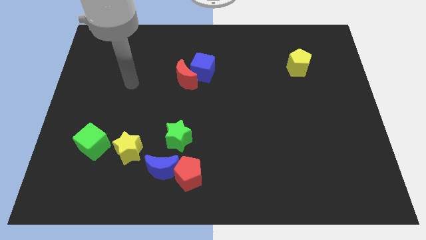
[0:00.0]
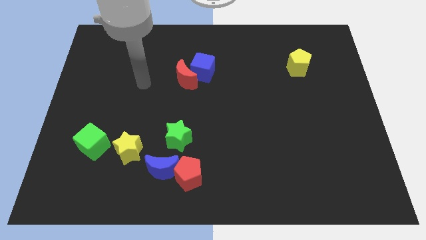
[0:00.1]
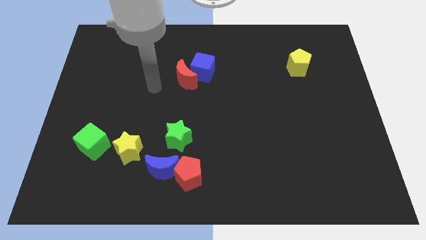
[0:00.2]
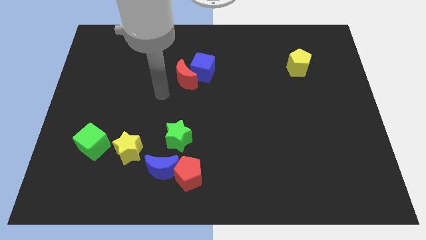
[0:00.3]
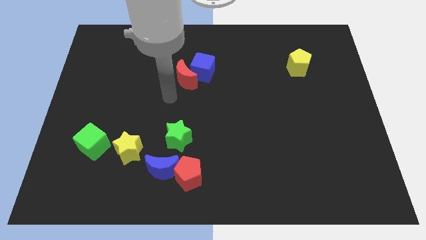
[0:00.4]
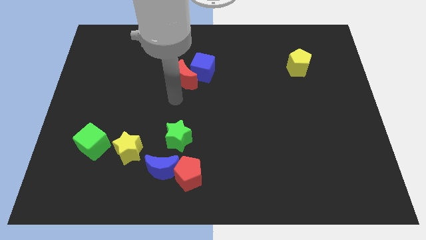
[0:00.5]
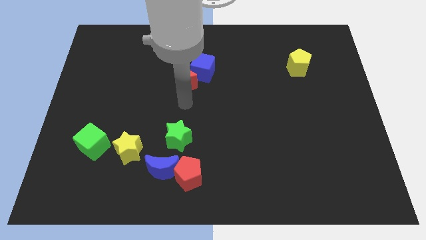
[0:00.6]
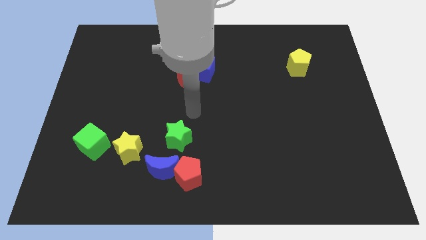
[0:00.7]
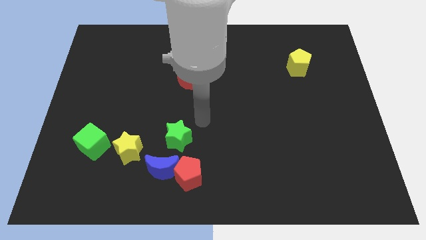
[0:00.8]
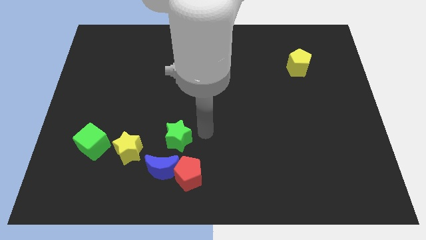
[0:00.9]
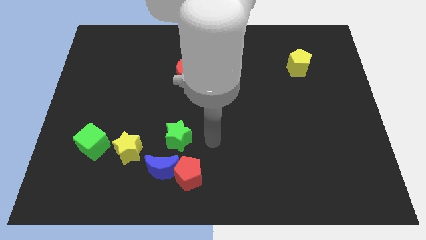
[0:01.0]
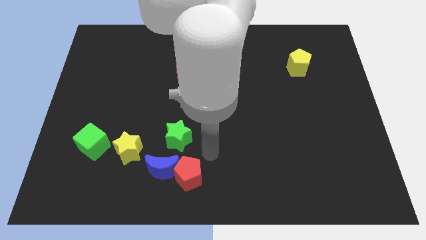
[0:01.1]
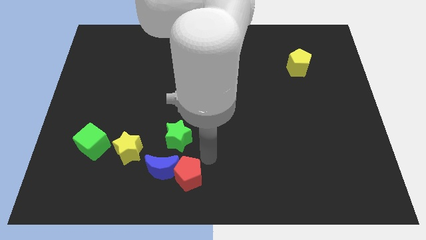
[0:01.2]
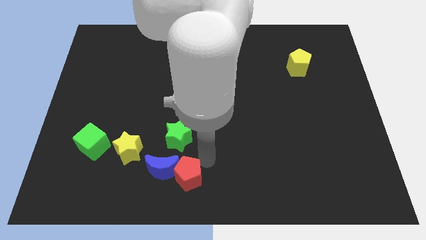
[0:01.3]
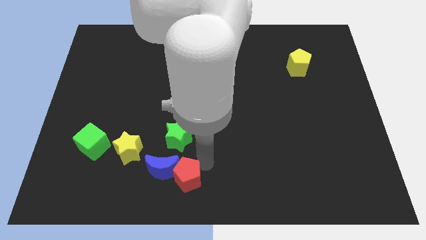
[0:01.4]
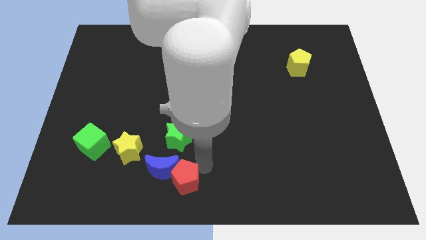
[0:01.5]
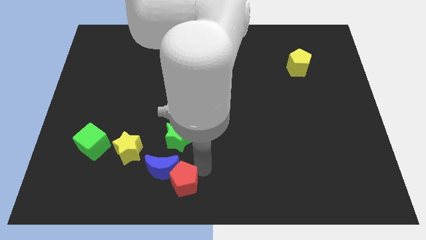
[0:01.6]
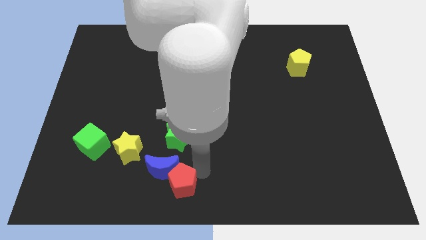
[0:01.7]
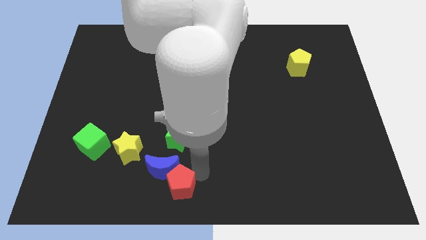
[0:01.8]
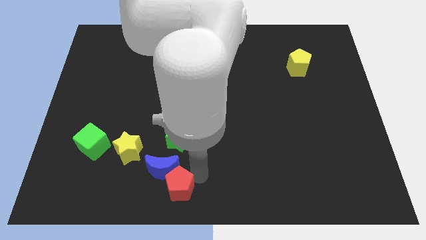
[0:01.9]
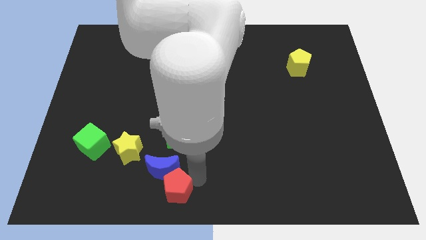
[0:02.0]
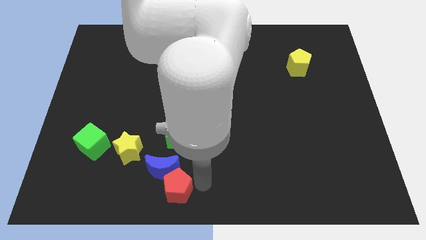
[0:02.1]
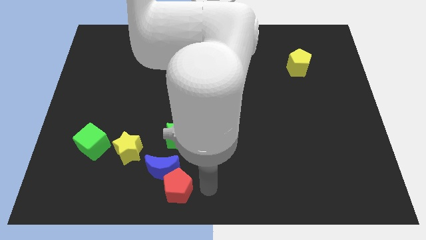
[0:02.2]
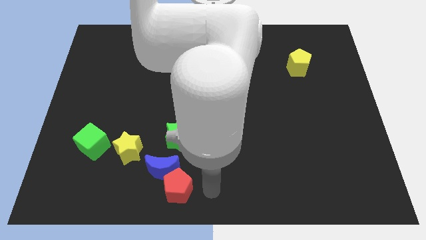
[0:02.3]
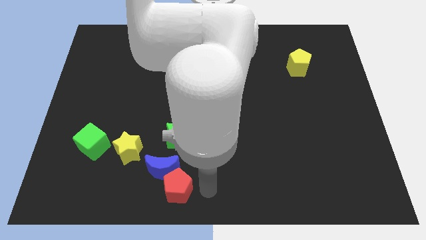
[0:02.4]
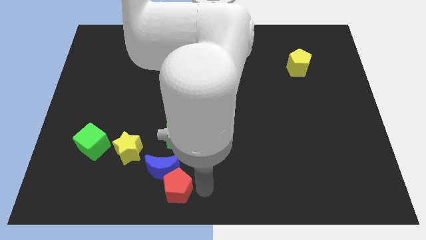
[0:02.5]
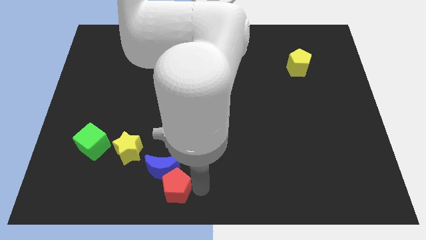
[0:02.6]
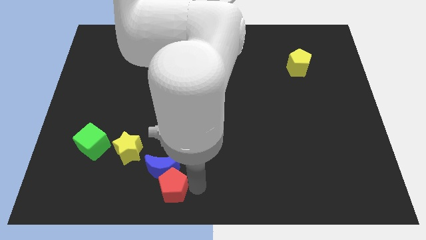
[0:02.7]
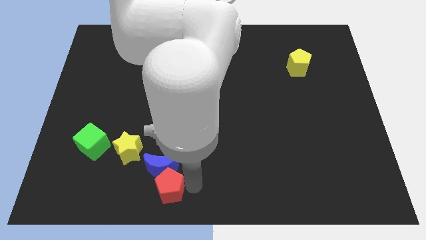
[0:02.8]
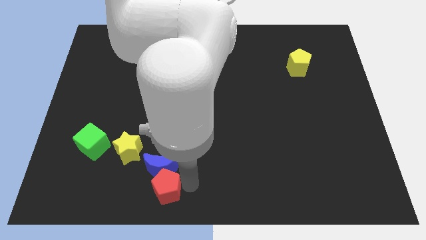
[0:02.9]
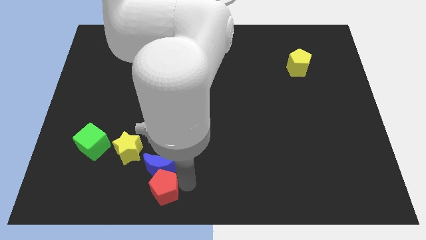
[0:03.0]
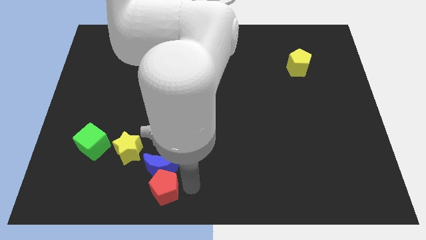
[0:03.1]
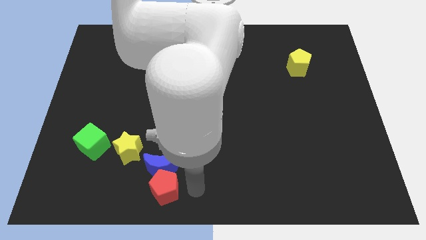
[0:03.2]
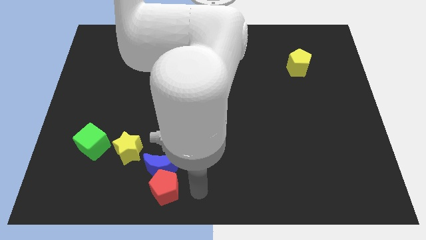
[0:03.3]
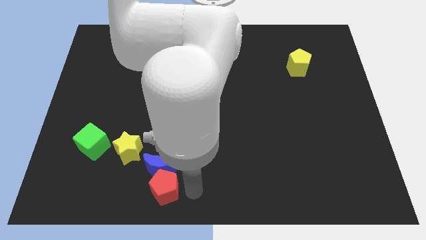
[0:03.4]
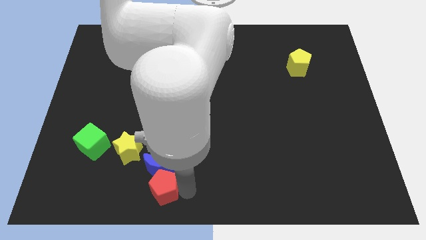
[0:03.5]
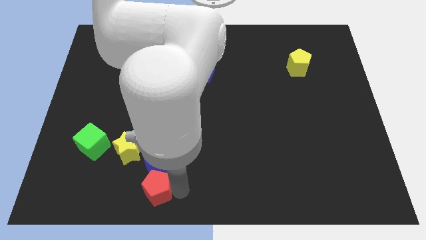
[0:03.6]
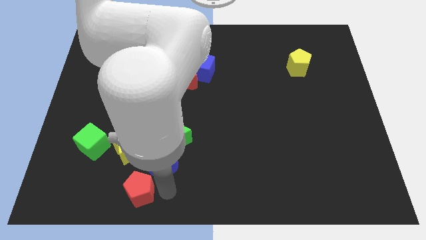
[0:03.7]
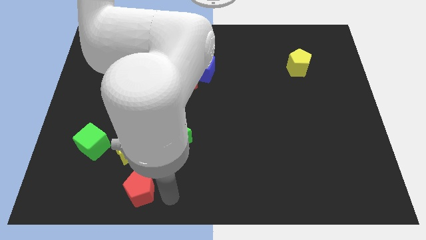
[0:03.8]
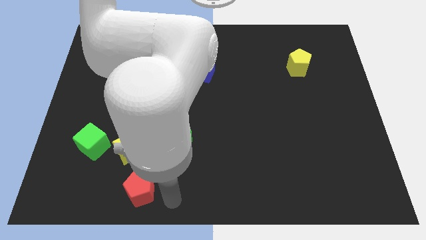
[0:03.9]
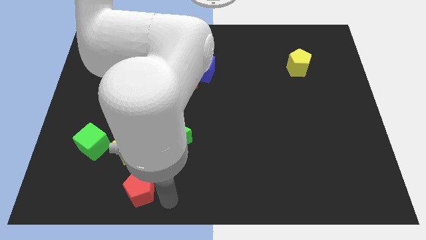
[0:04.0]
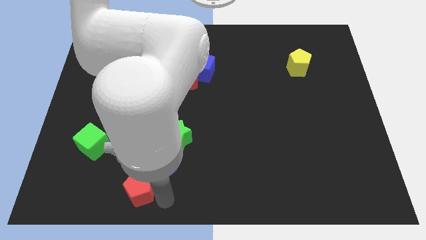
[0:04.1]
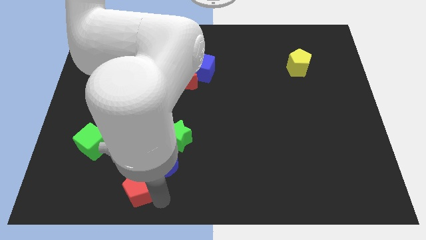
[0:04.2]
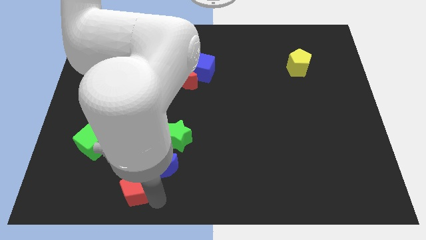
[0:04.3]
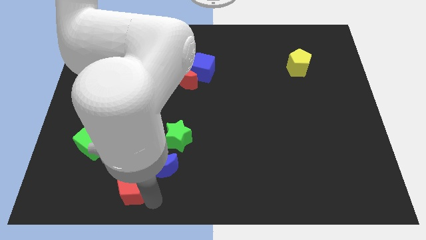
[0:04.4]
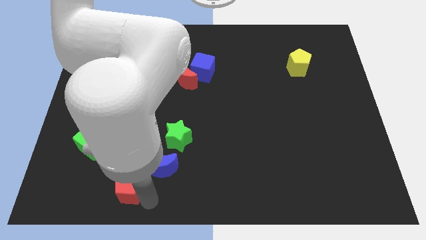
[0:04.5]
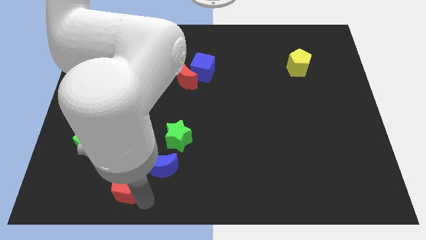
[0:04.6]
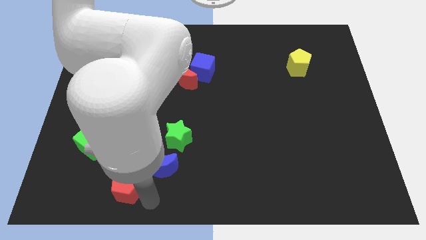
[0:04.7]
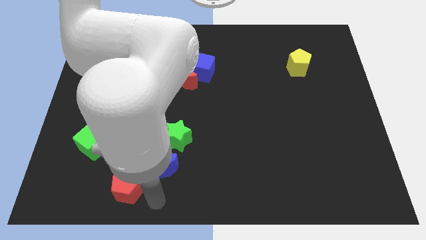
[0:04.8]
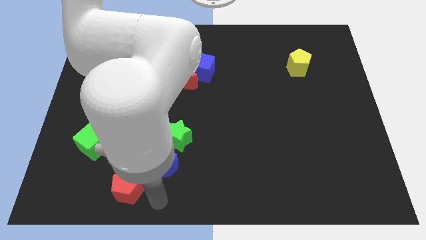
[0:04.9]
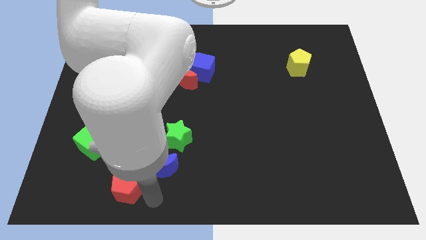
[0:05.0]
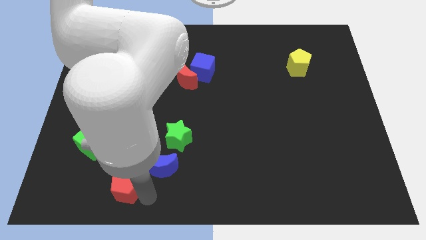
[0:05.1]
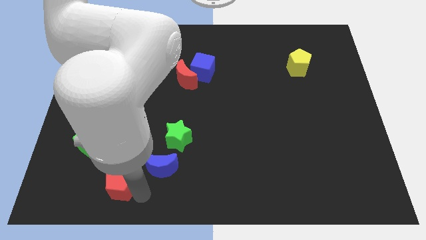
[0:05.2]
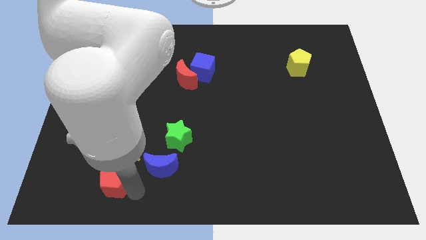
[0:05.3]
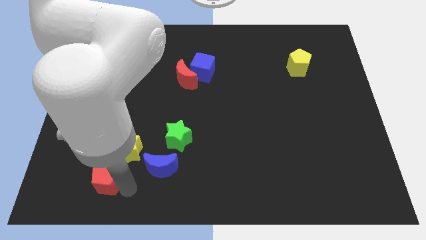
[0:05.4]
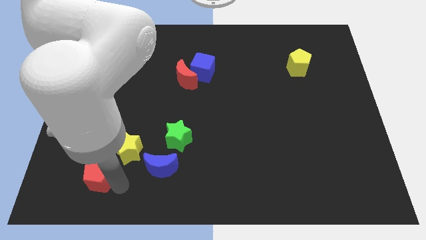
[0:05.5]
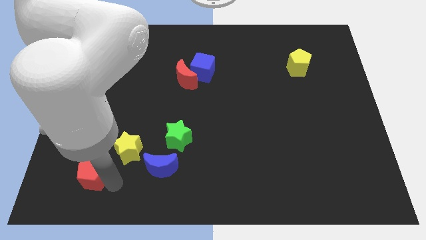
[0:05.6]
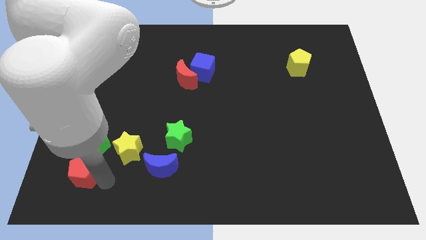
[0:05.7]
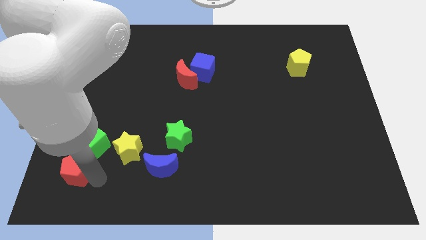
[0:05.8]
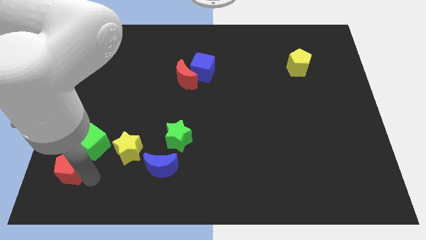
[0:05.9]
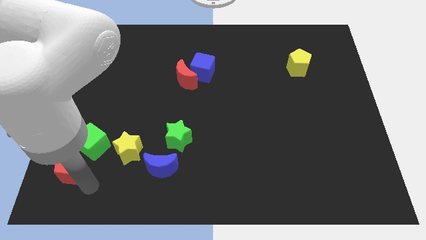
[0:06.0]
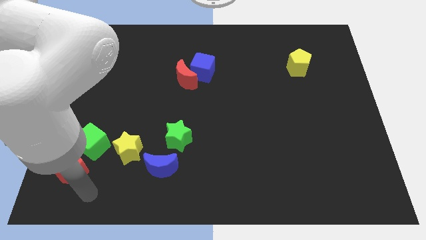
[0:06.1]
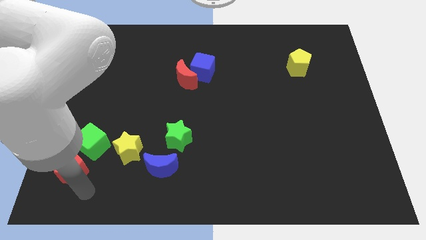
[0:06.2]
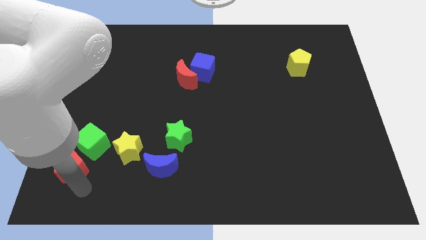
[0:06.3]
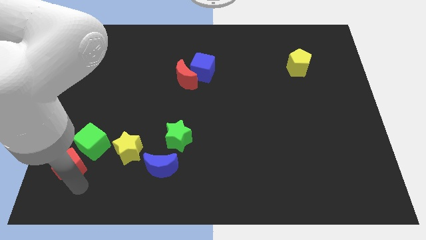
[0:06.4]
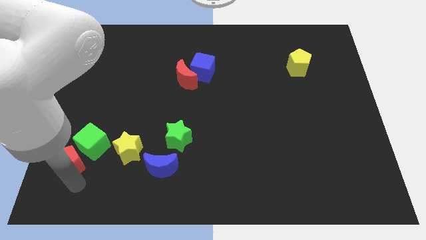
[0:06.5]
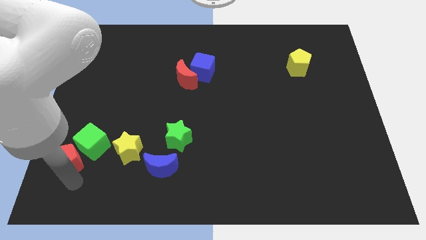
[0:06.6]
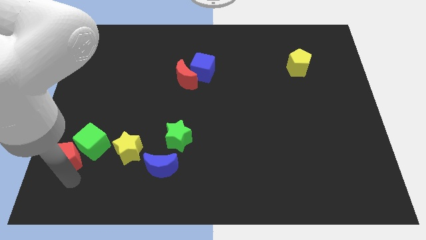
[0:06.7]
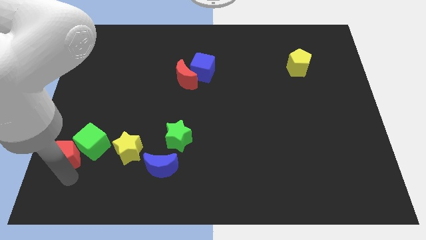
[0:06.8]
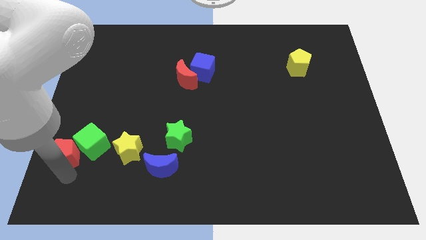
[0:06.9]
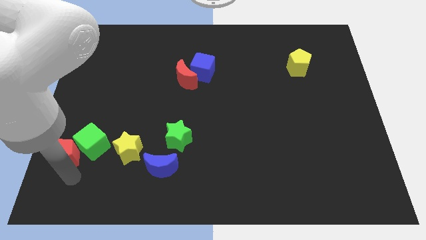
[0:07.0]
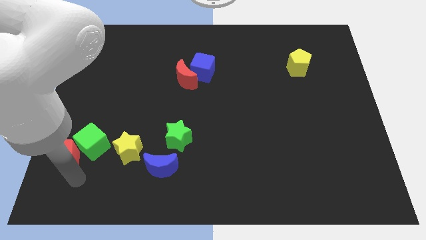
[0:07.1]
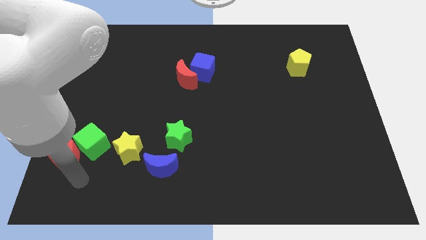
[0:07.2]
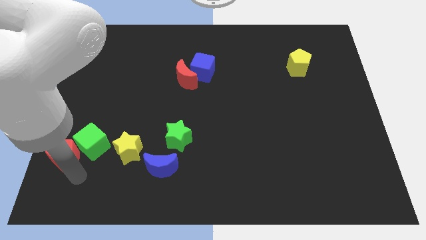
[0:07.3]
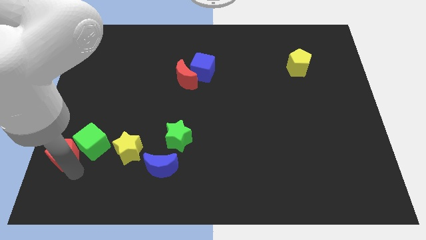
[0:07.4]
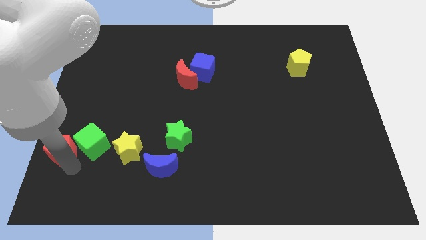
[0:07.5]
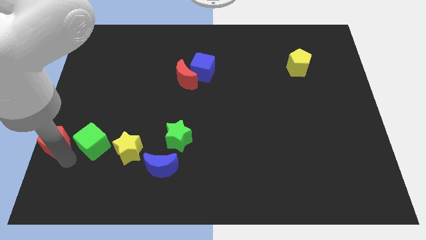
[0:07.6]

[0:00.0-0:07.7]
push the red pentagon to the center left
